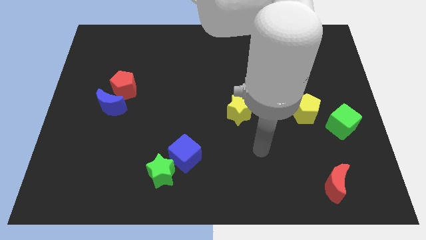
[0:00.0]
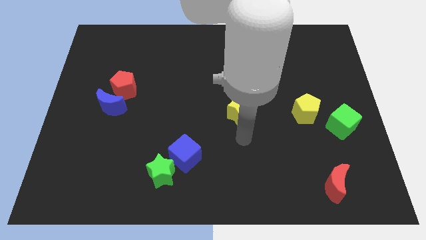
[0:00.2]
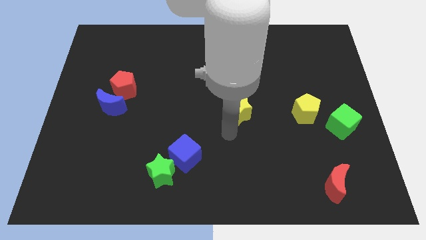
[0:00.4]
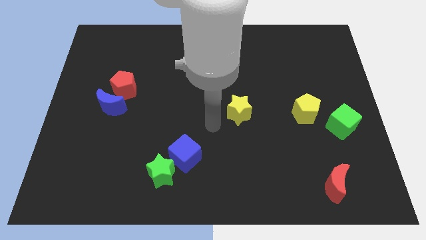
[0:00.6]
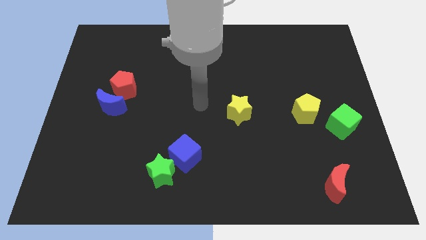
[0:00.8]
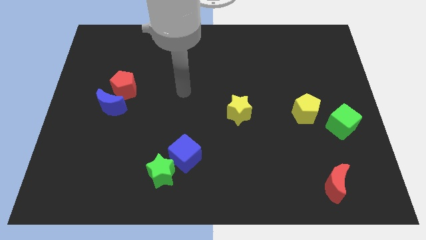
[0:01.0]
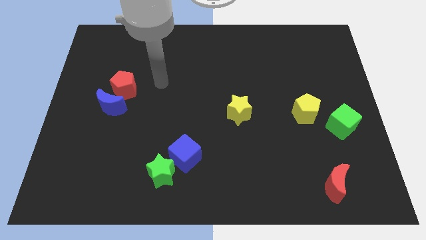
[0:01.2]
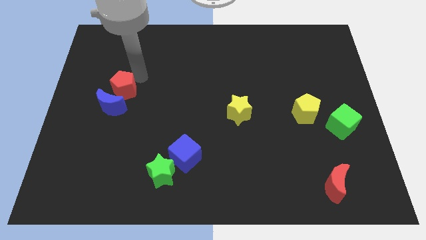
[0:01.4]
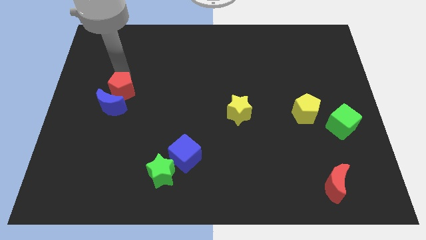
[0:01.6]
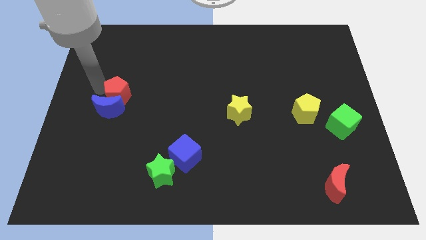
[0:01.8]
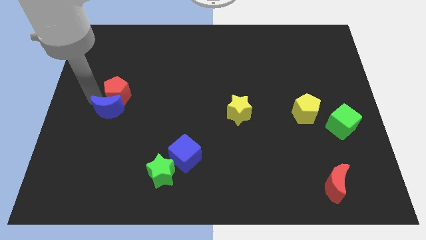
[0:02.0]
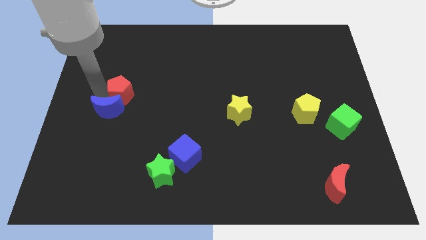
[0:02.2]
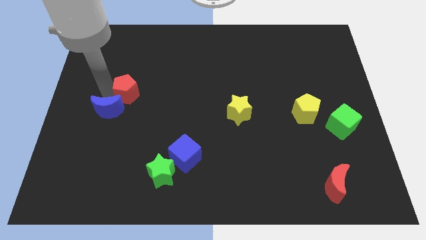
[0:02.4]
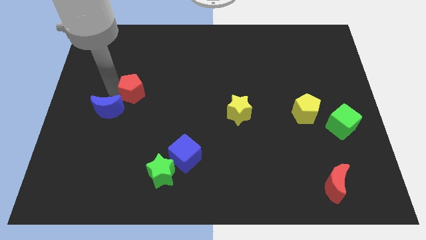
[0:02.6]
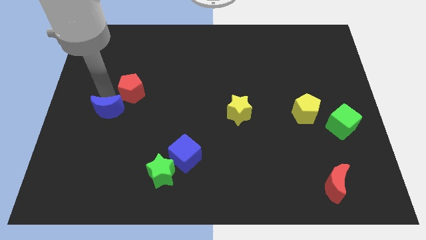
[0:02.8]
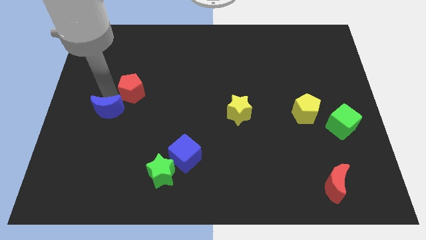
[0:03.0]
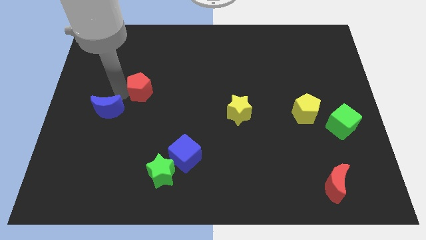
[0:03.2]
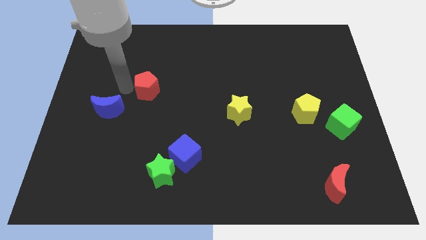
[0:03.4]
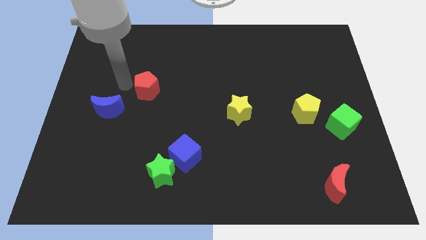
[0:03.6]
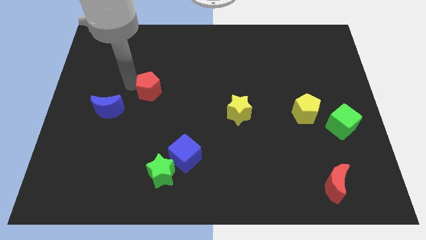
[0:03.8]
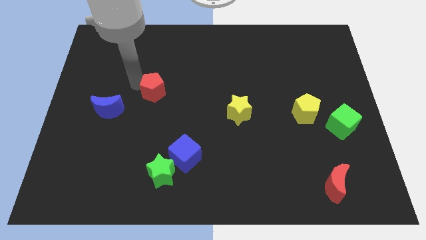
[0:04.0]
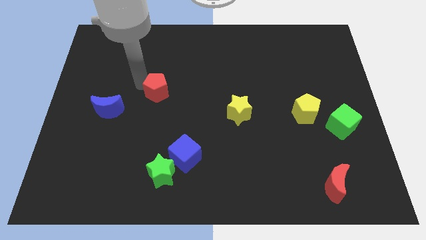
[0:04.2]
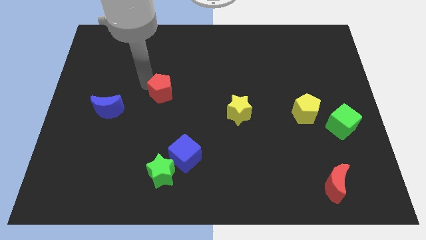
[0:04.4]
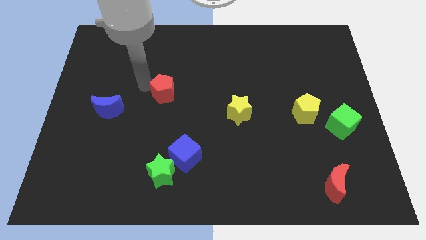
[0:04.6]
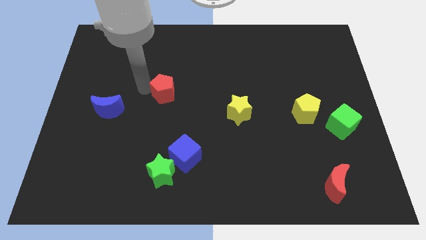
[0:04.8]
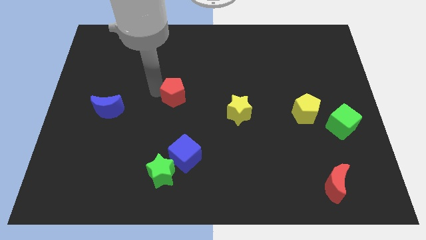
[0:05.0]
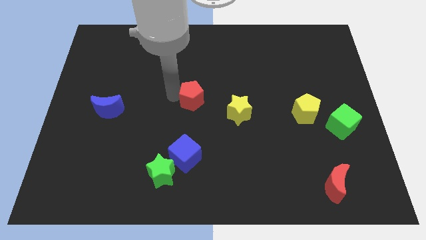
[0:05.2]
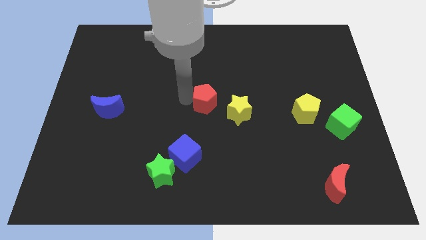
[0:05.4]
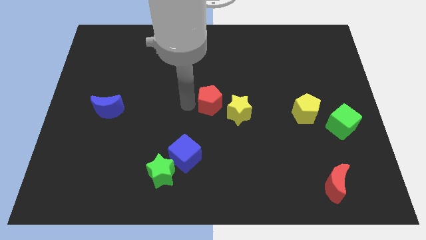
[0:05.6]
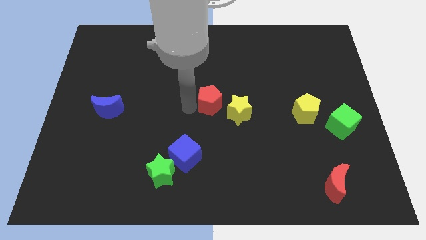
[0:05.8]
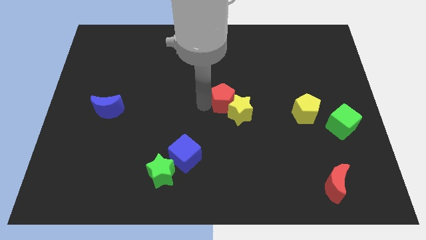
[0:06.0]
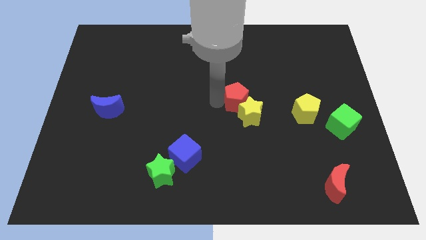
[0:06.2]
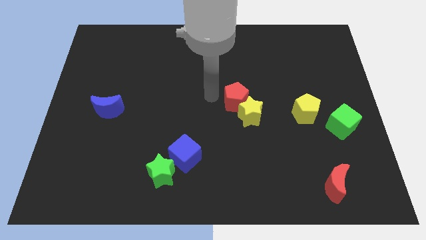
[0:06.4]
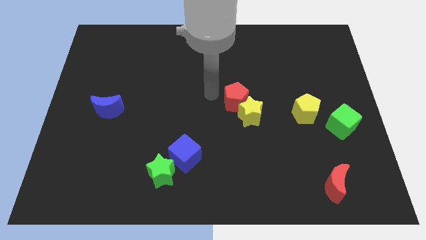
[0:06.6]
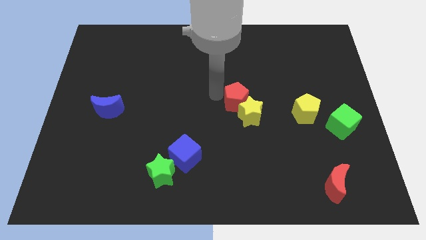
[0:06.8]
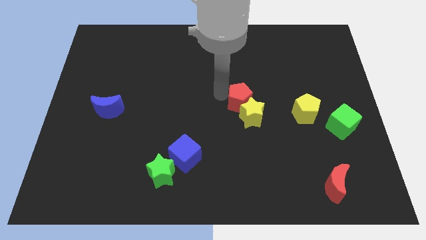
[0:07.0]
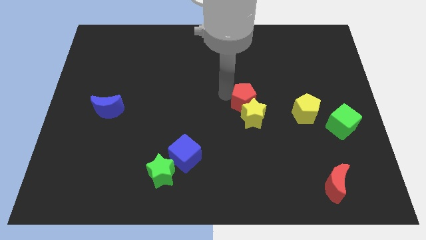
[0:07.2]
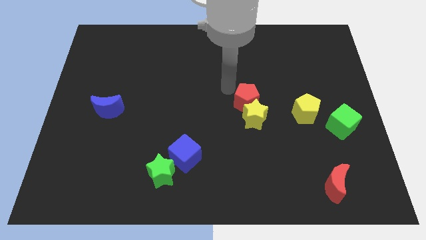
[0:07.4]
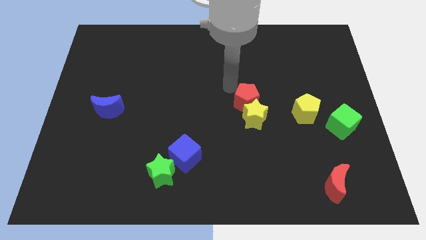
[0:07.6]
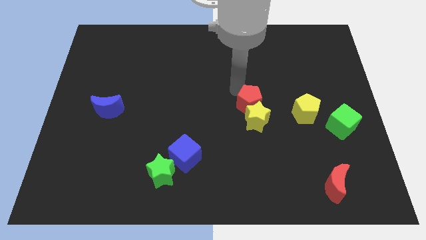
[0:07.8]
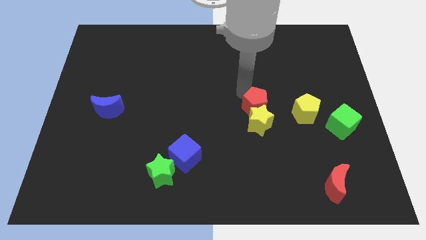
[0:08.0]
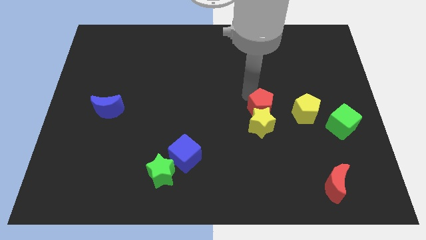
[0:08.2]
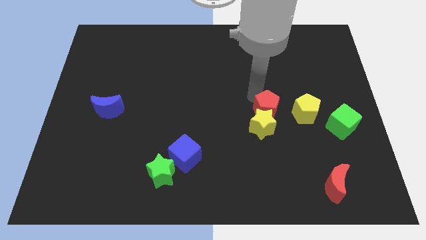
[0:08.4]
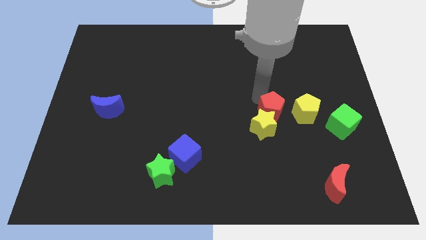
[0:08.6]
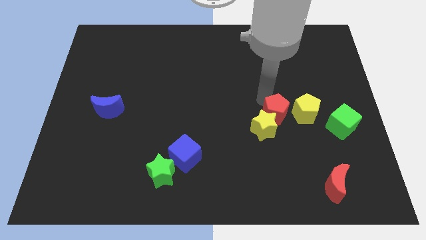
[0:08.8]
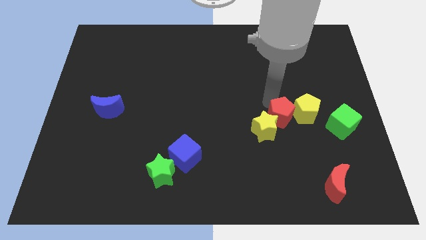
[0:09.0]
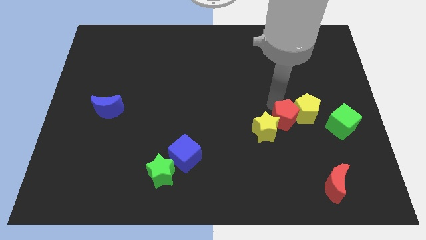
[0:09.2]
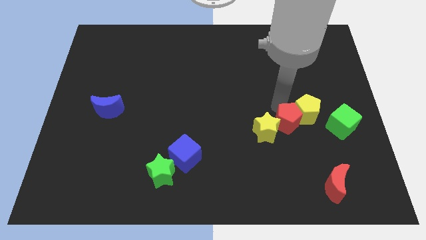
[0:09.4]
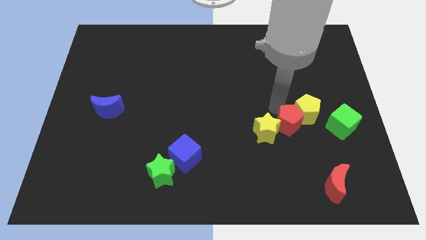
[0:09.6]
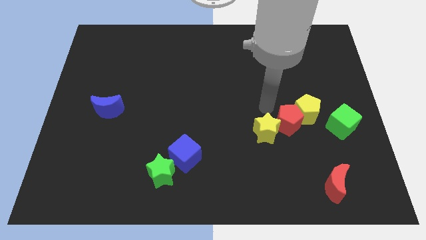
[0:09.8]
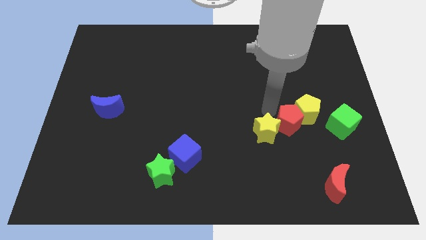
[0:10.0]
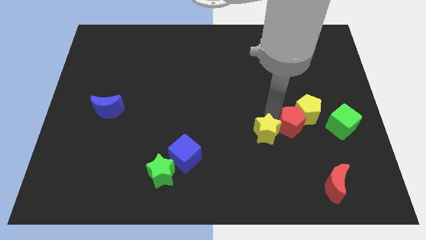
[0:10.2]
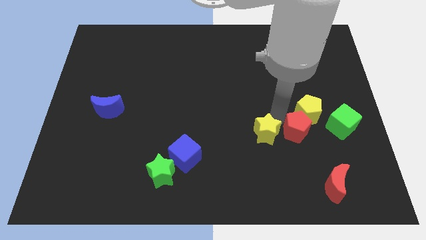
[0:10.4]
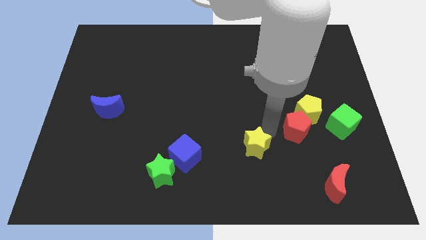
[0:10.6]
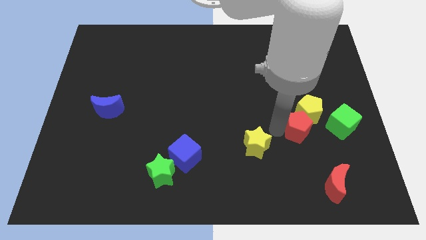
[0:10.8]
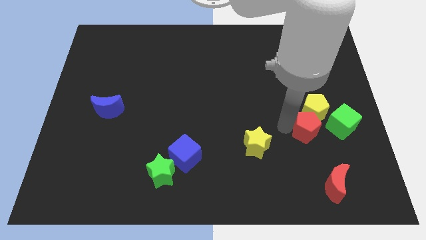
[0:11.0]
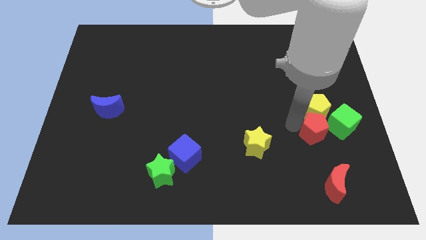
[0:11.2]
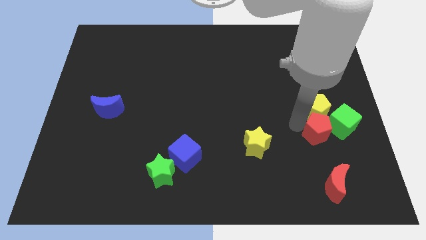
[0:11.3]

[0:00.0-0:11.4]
push the red pentagon towards the green cube

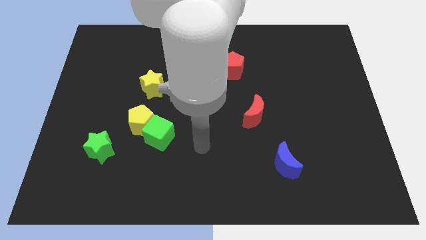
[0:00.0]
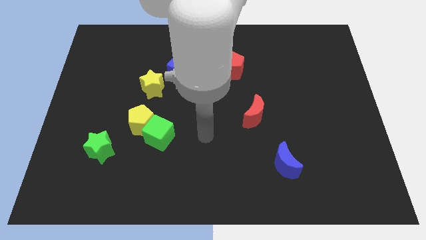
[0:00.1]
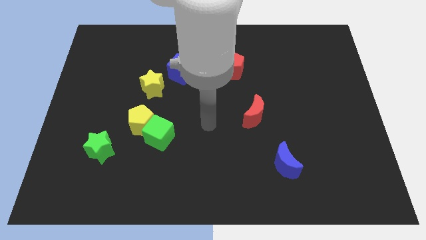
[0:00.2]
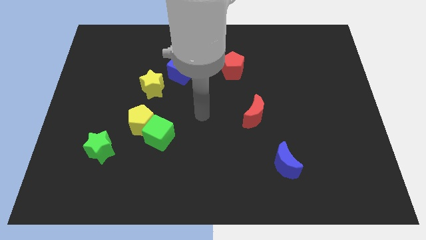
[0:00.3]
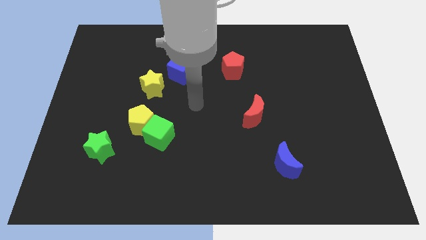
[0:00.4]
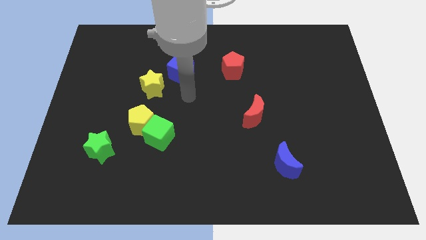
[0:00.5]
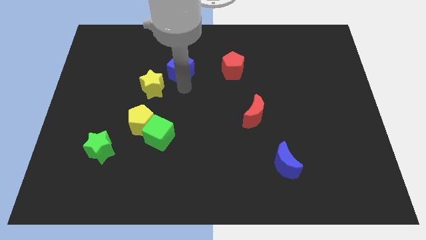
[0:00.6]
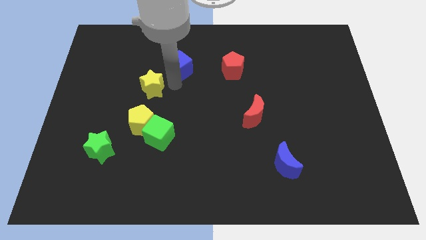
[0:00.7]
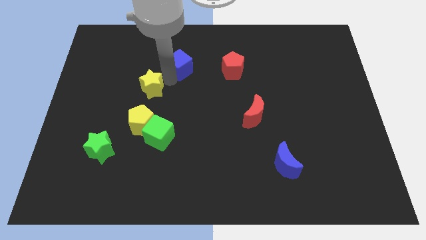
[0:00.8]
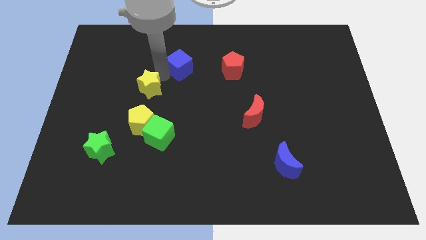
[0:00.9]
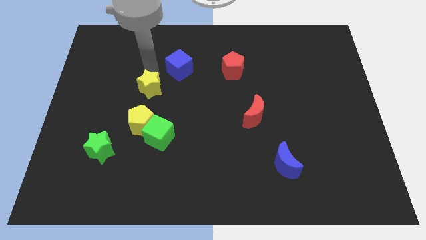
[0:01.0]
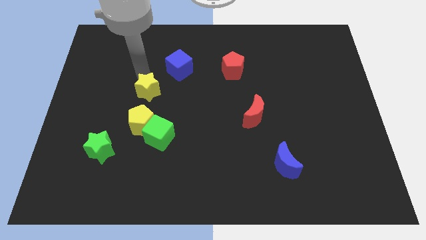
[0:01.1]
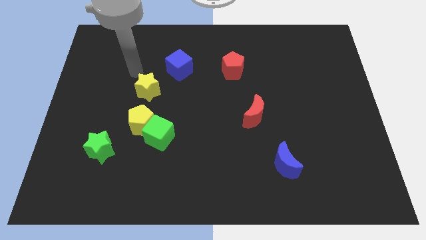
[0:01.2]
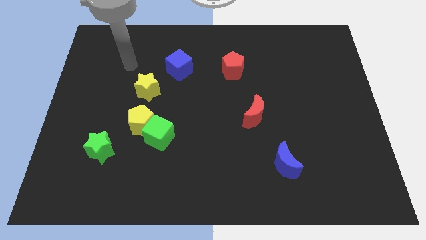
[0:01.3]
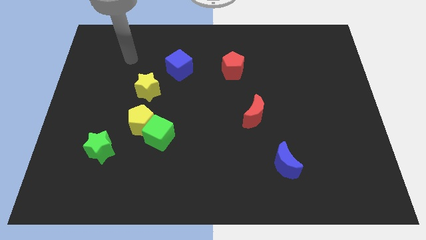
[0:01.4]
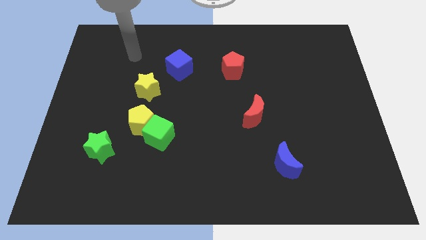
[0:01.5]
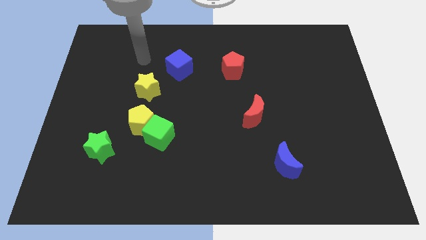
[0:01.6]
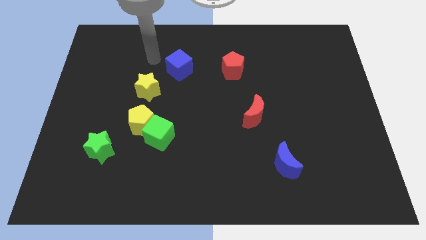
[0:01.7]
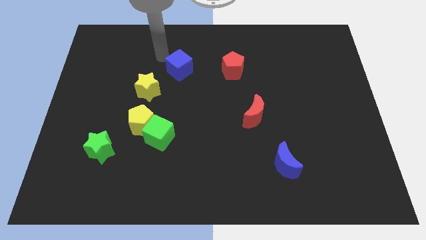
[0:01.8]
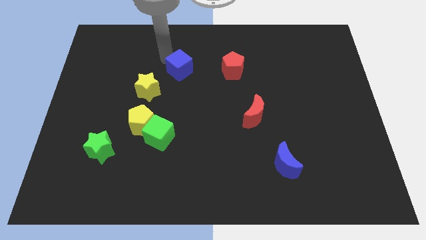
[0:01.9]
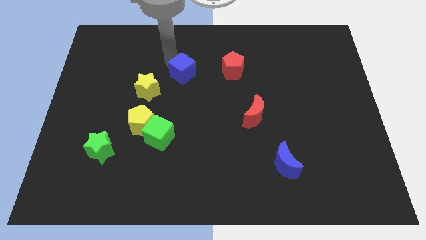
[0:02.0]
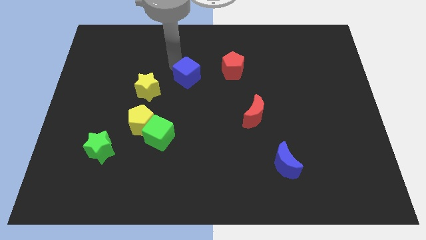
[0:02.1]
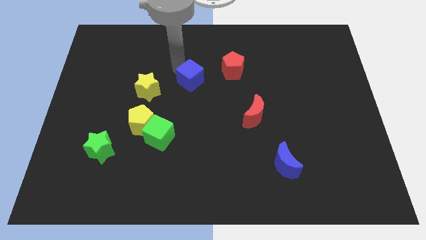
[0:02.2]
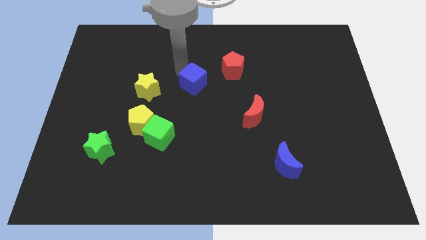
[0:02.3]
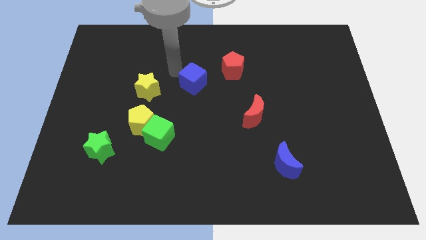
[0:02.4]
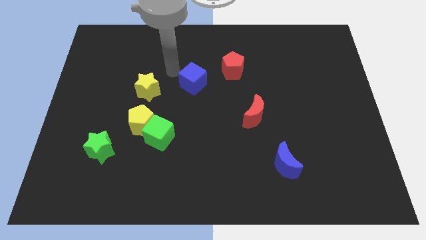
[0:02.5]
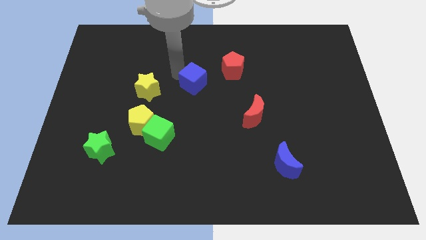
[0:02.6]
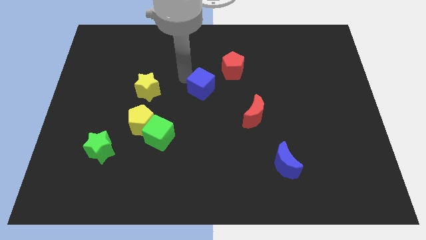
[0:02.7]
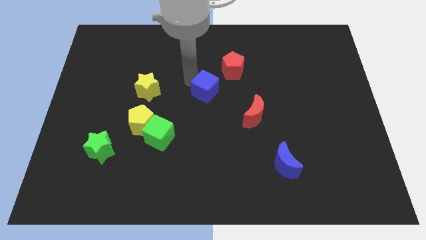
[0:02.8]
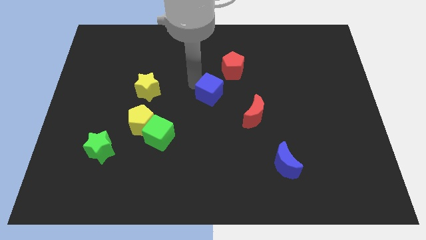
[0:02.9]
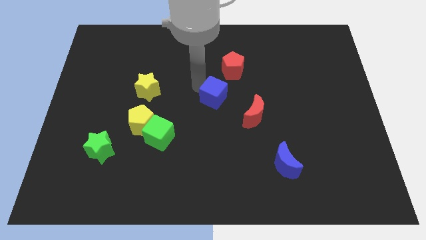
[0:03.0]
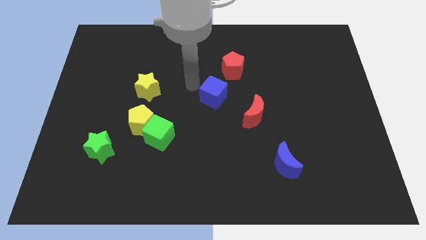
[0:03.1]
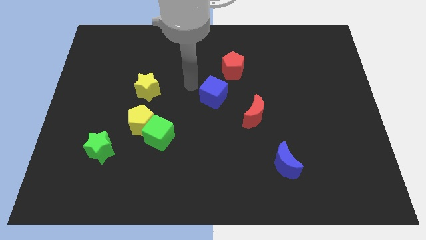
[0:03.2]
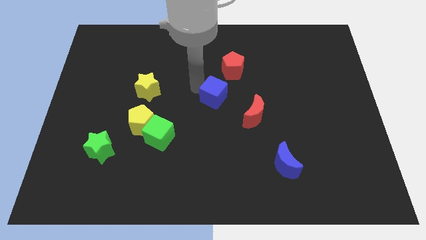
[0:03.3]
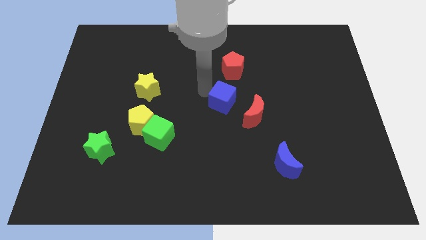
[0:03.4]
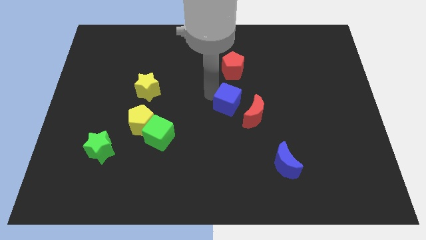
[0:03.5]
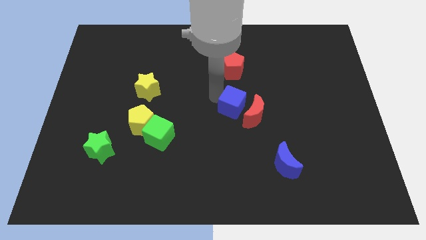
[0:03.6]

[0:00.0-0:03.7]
slide the blue cube close to the red moon
